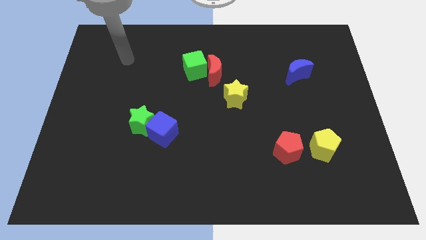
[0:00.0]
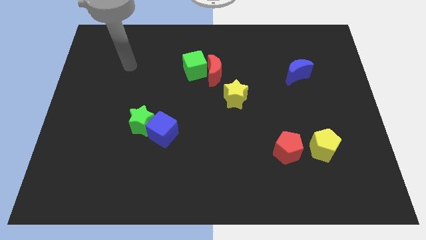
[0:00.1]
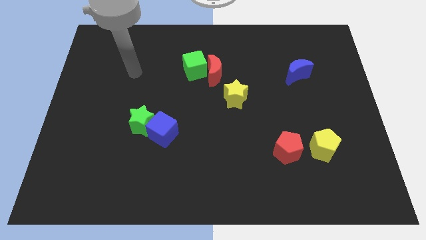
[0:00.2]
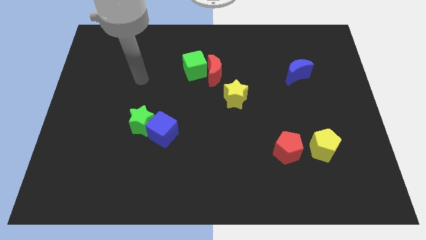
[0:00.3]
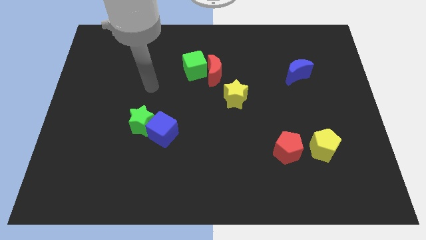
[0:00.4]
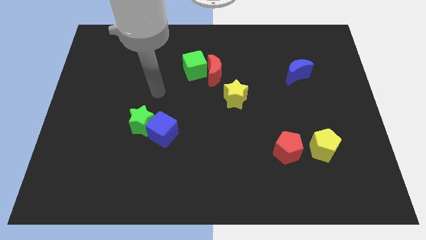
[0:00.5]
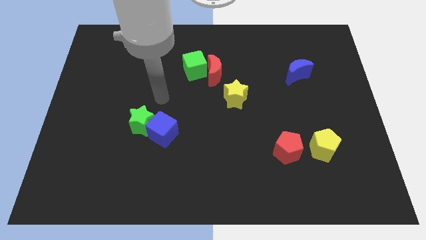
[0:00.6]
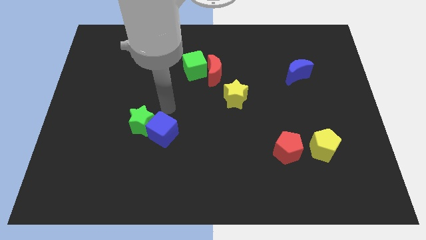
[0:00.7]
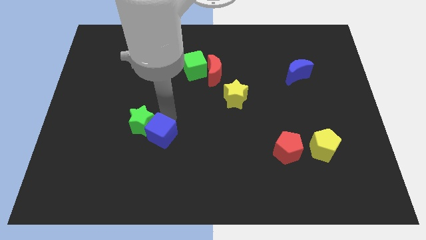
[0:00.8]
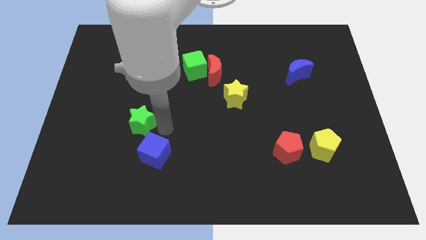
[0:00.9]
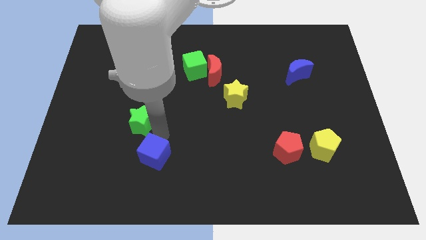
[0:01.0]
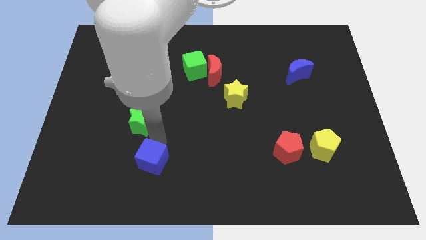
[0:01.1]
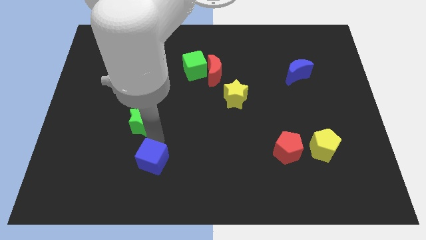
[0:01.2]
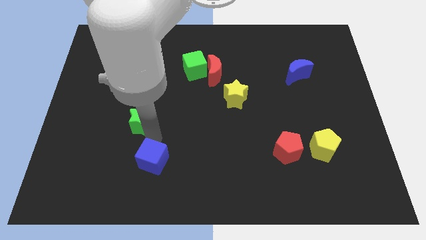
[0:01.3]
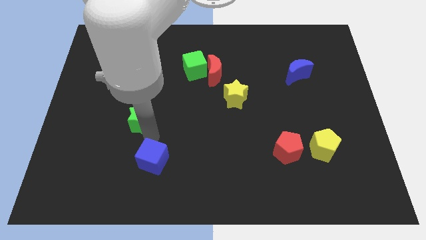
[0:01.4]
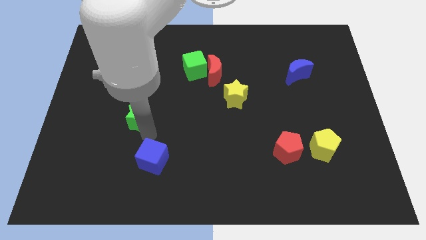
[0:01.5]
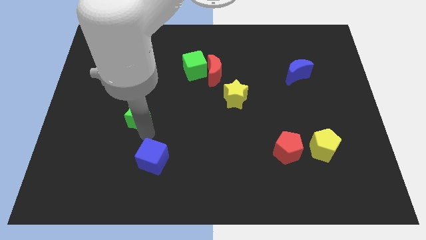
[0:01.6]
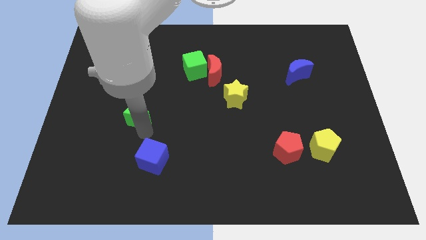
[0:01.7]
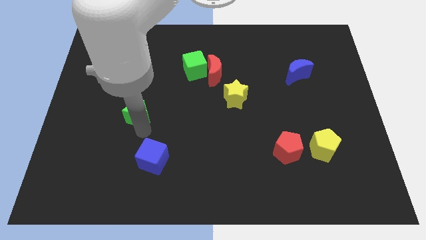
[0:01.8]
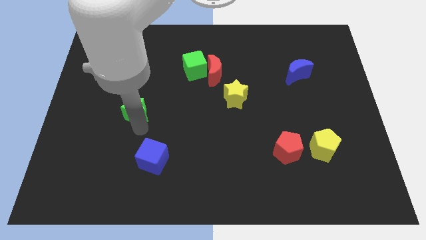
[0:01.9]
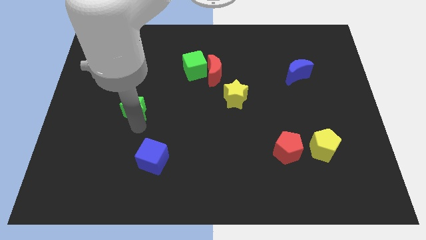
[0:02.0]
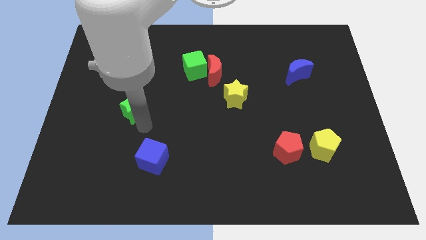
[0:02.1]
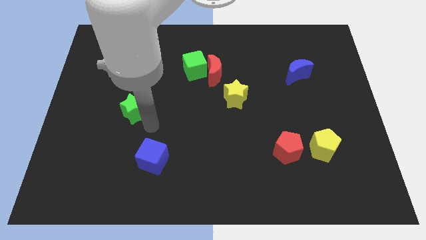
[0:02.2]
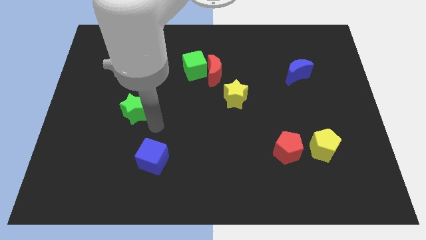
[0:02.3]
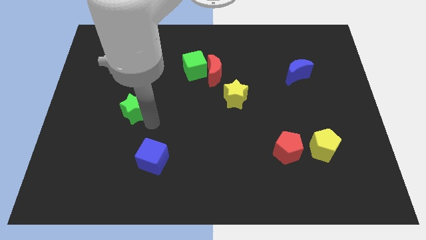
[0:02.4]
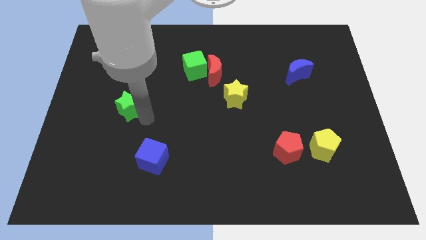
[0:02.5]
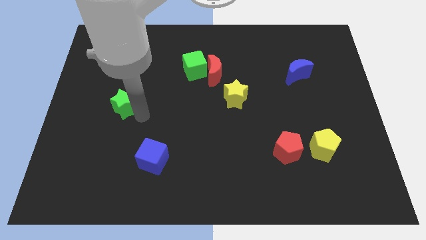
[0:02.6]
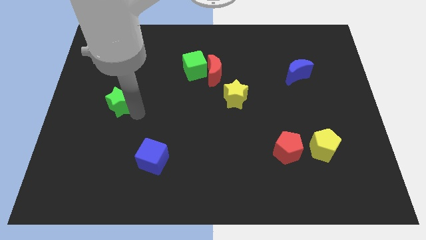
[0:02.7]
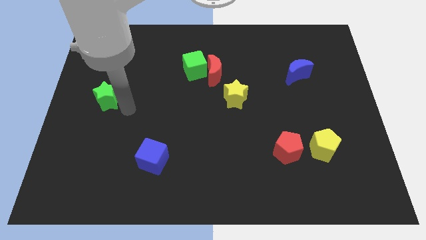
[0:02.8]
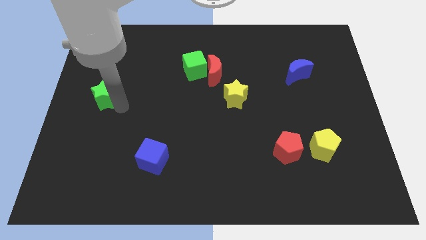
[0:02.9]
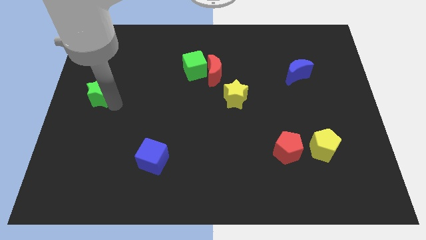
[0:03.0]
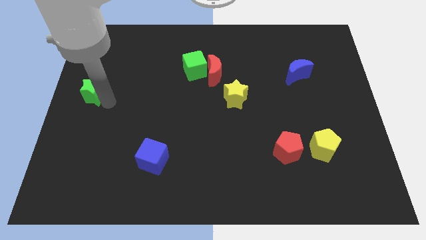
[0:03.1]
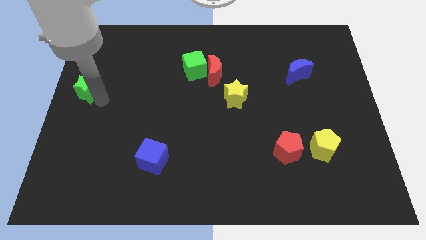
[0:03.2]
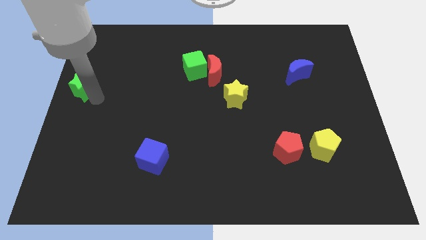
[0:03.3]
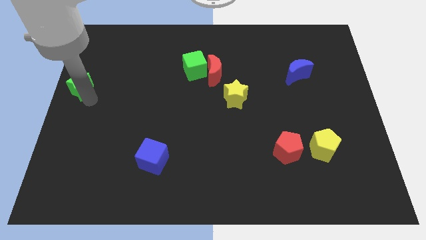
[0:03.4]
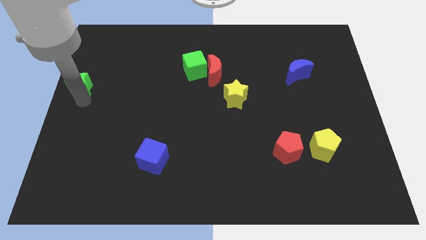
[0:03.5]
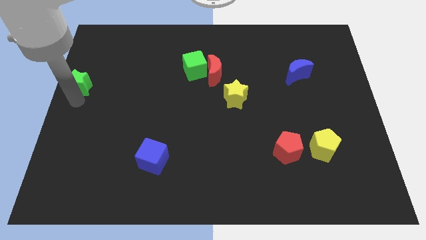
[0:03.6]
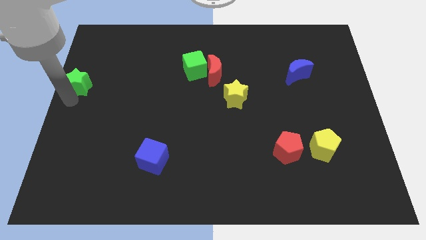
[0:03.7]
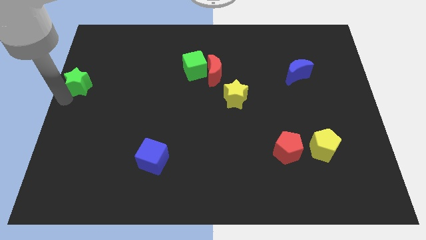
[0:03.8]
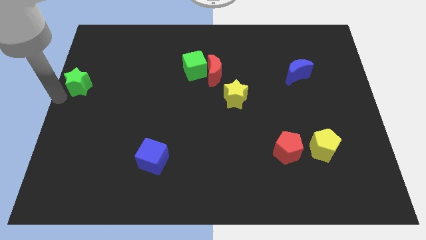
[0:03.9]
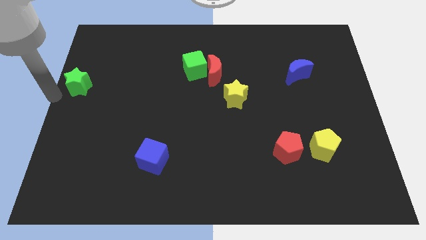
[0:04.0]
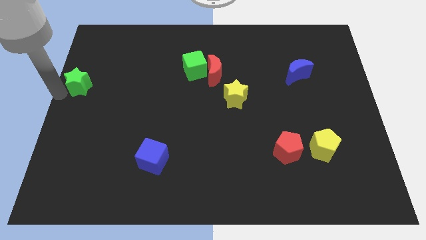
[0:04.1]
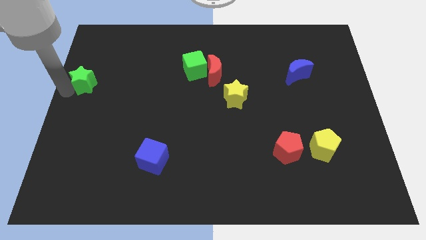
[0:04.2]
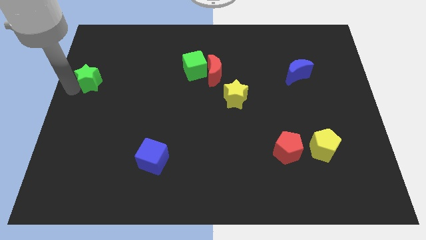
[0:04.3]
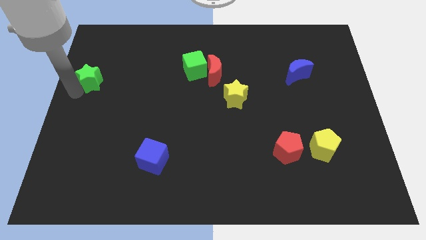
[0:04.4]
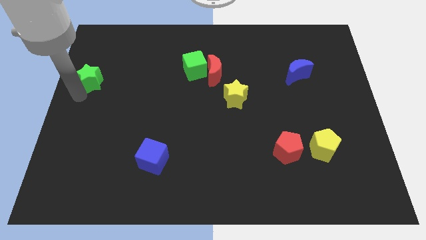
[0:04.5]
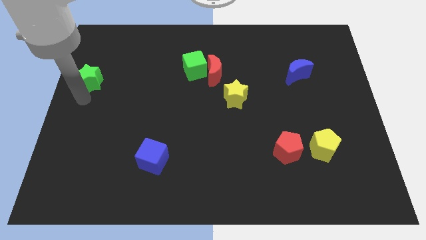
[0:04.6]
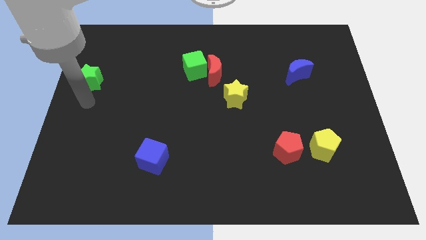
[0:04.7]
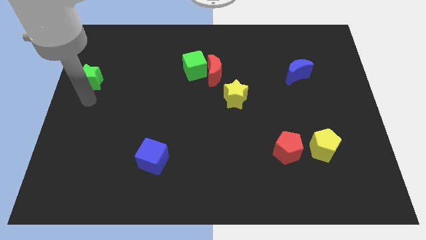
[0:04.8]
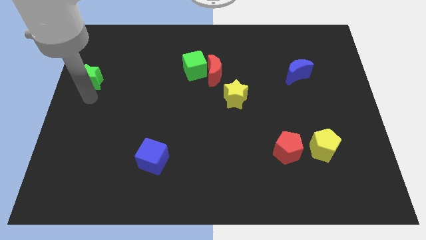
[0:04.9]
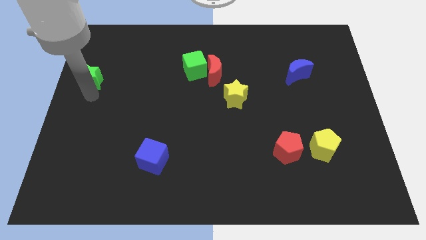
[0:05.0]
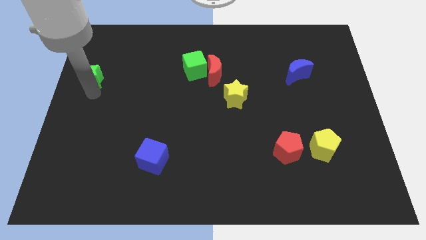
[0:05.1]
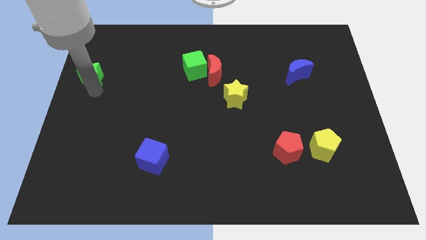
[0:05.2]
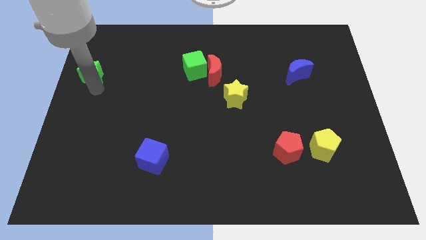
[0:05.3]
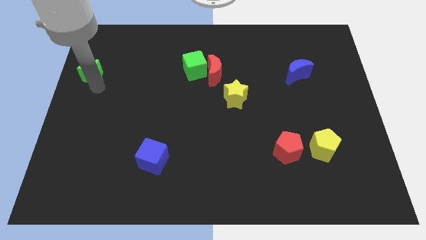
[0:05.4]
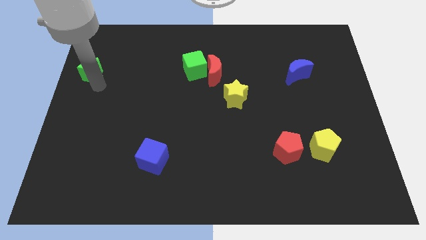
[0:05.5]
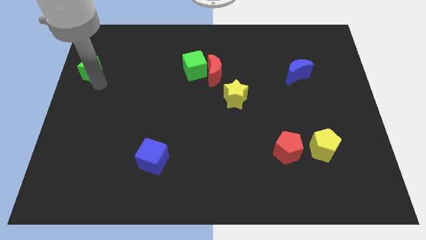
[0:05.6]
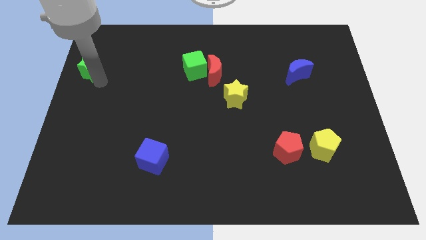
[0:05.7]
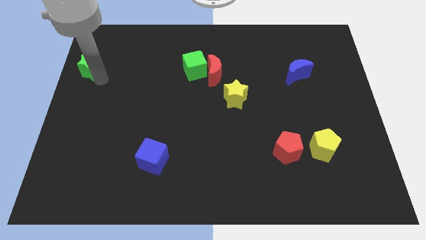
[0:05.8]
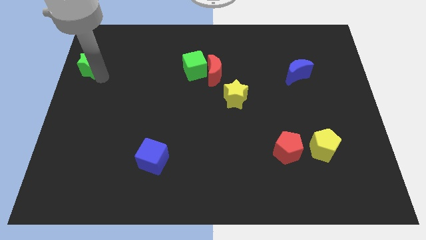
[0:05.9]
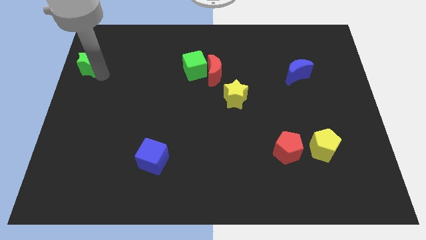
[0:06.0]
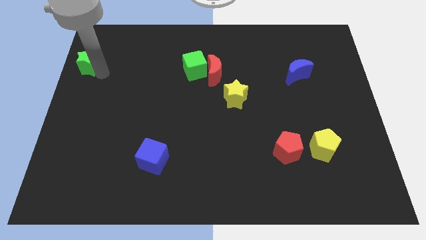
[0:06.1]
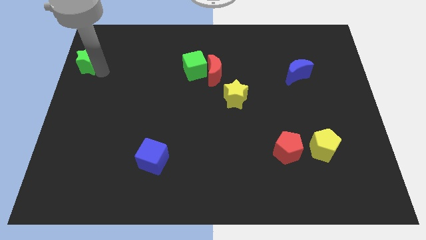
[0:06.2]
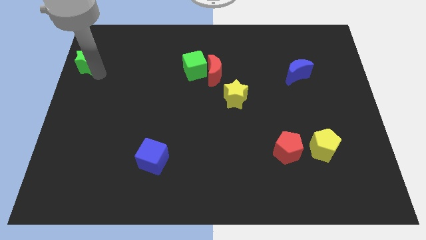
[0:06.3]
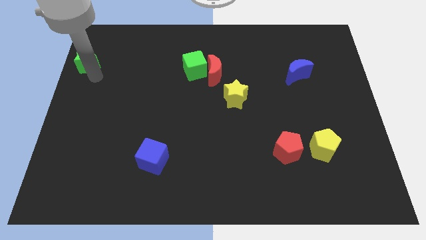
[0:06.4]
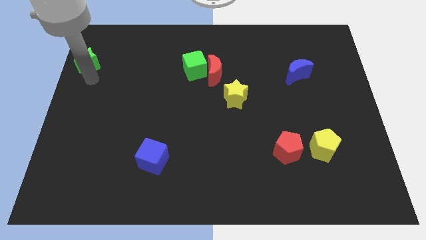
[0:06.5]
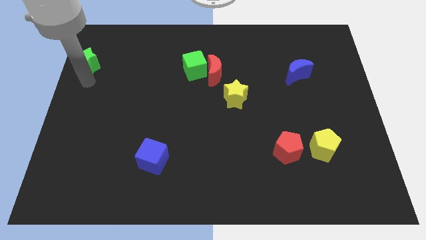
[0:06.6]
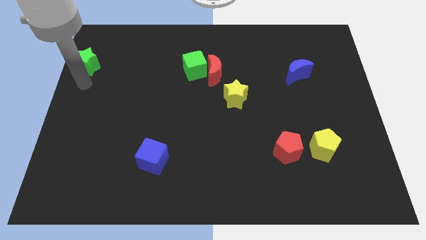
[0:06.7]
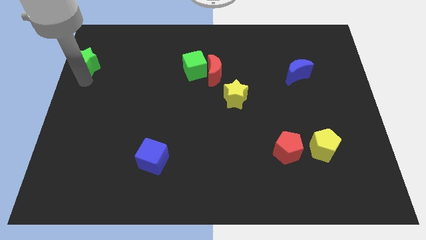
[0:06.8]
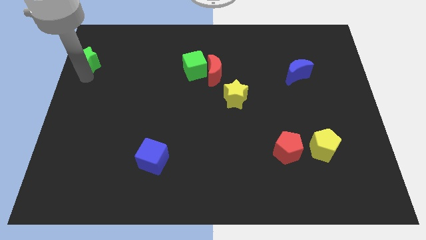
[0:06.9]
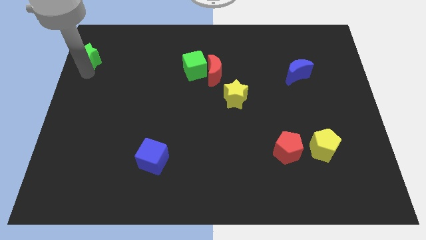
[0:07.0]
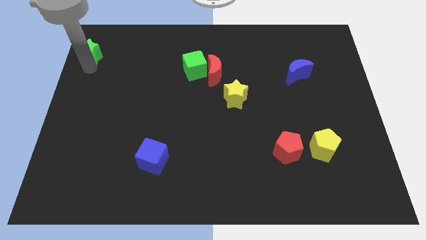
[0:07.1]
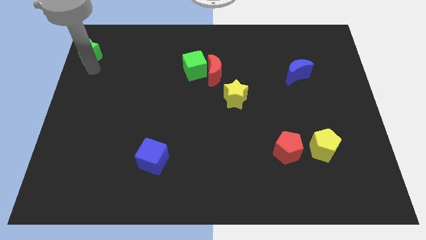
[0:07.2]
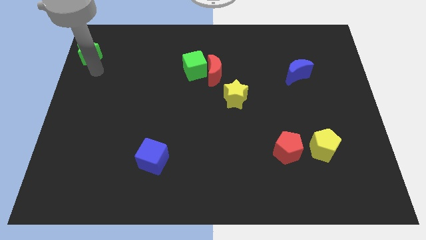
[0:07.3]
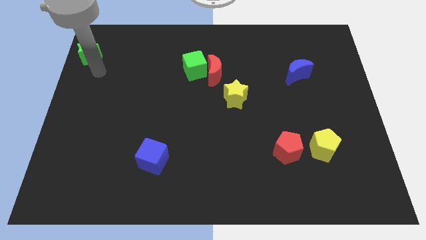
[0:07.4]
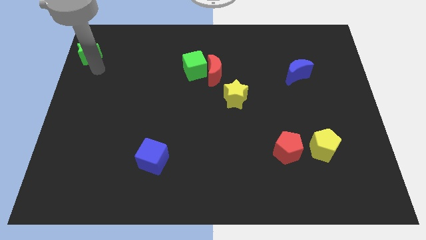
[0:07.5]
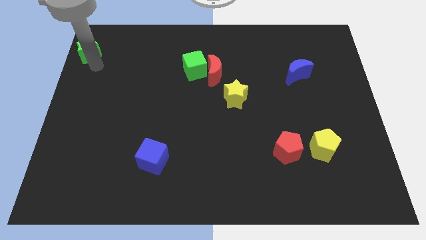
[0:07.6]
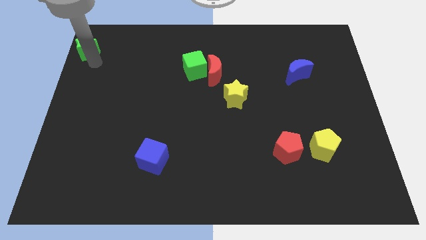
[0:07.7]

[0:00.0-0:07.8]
put the green star to the top left
